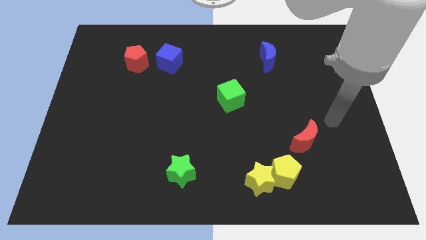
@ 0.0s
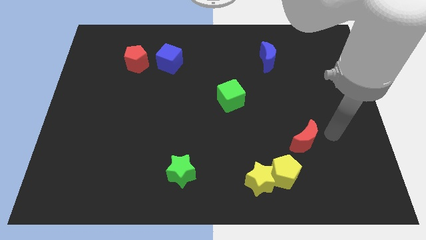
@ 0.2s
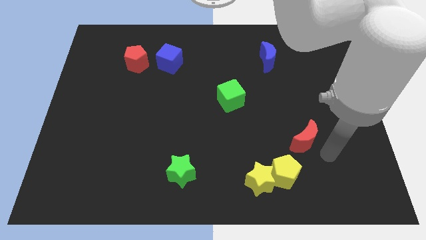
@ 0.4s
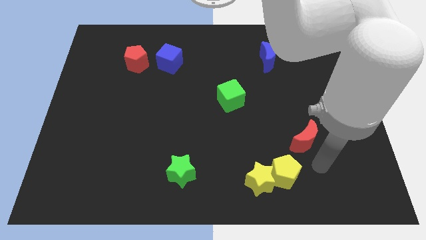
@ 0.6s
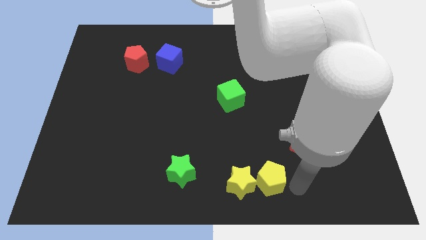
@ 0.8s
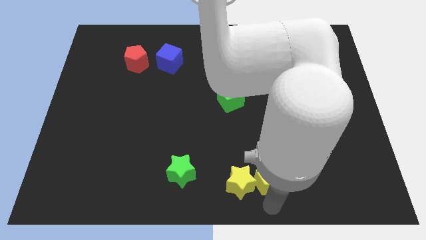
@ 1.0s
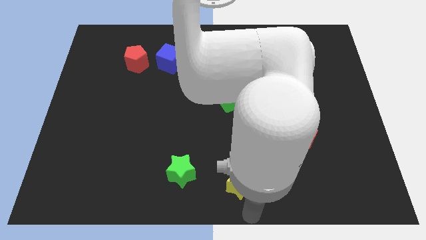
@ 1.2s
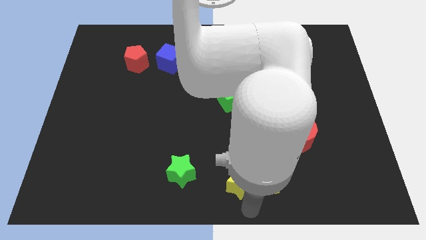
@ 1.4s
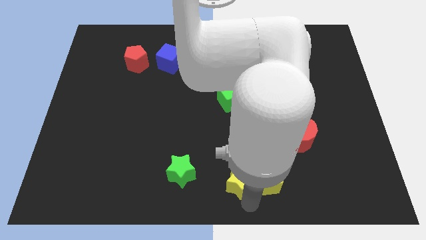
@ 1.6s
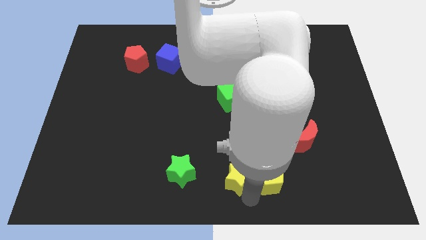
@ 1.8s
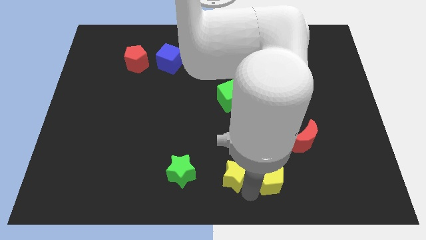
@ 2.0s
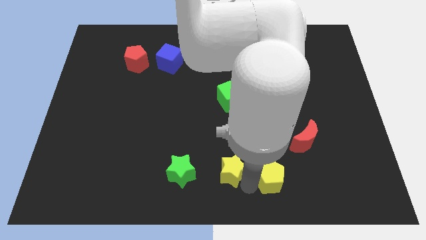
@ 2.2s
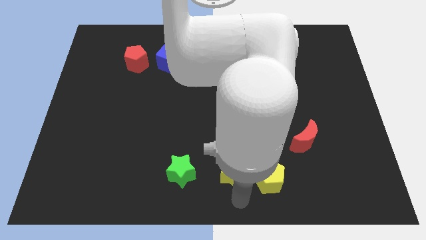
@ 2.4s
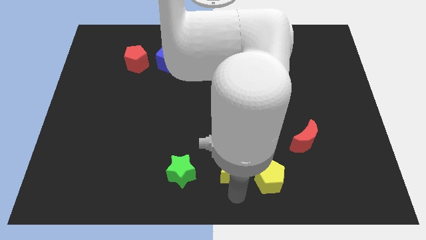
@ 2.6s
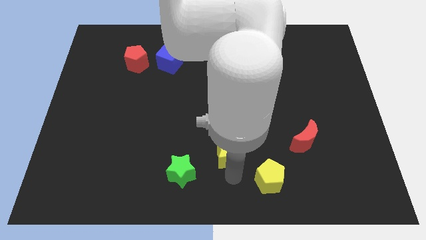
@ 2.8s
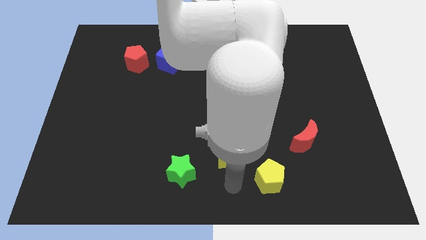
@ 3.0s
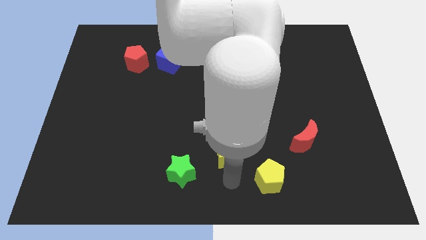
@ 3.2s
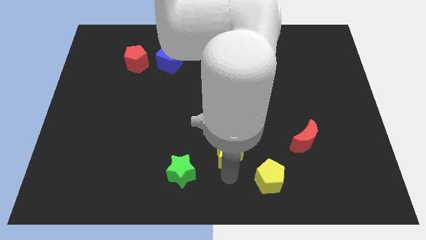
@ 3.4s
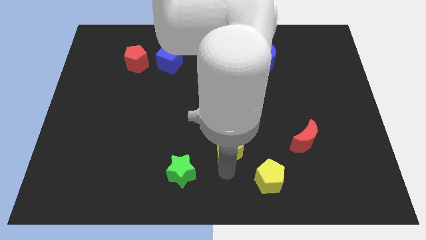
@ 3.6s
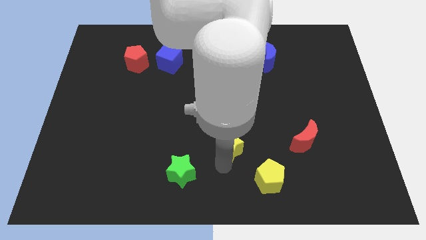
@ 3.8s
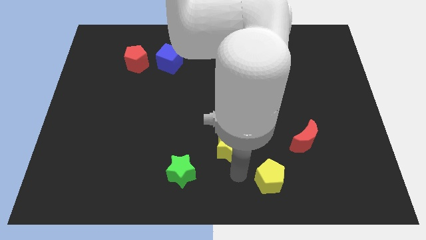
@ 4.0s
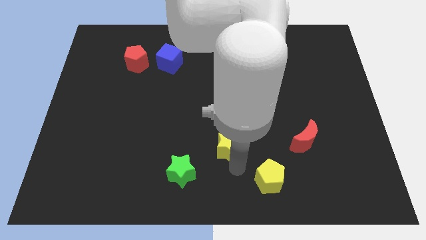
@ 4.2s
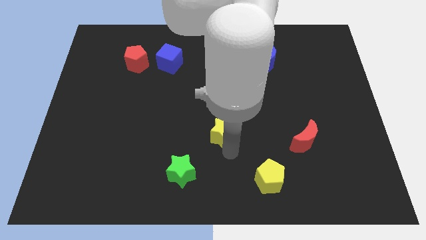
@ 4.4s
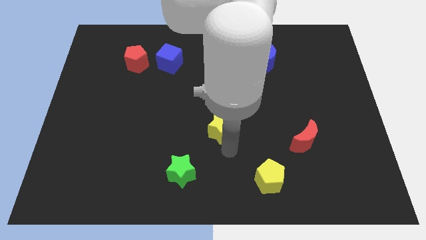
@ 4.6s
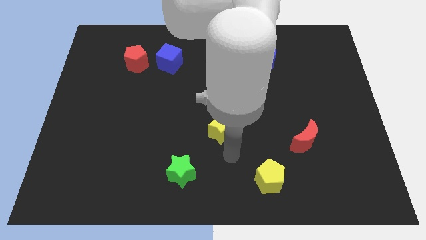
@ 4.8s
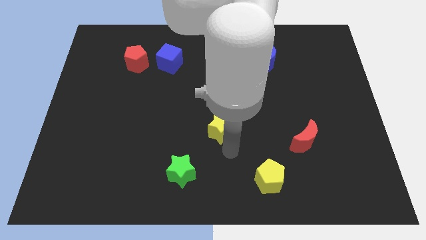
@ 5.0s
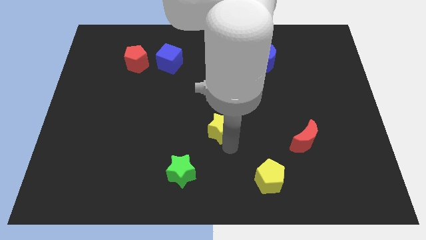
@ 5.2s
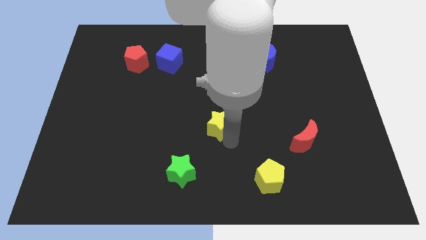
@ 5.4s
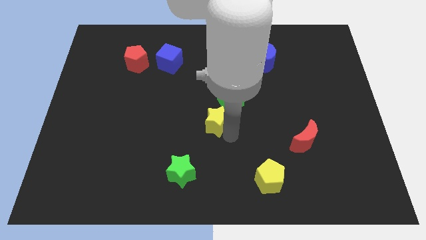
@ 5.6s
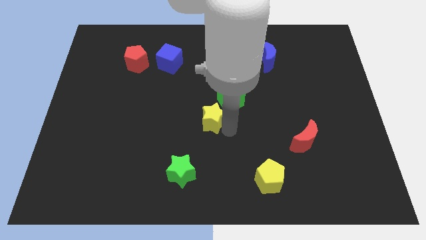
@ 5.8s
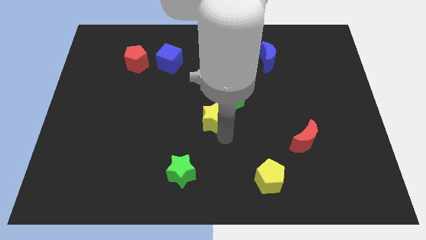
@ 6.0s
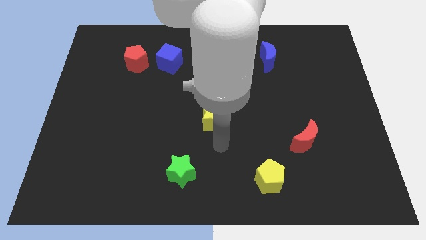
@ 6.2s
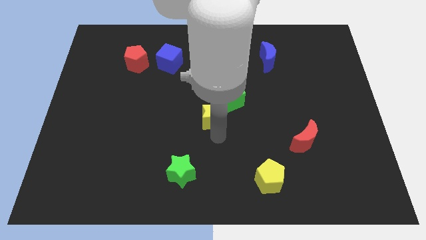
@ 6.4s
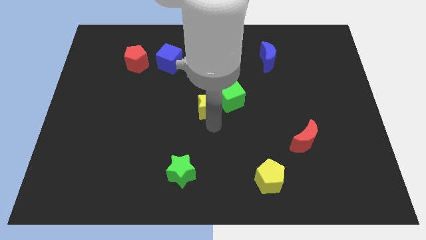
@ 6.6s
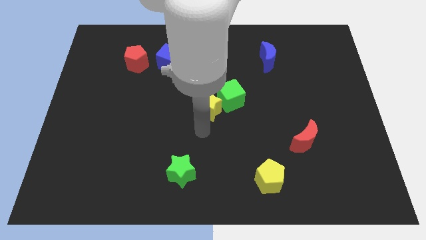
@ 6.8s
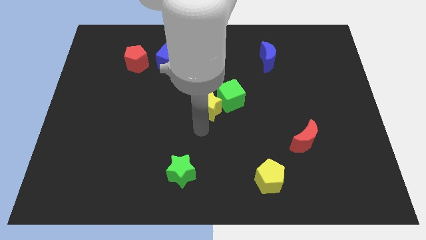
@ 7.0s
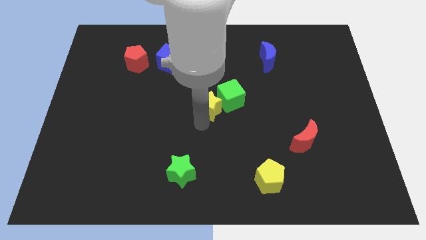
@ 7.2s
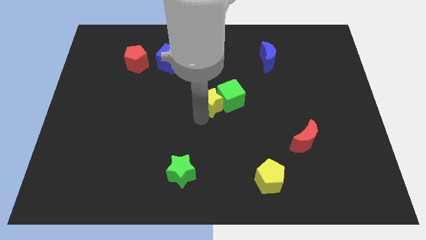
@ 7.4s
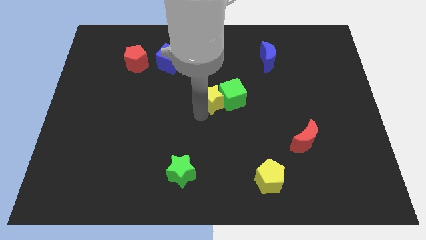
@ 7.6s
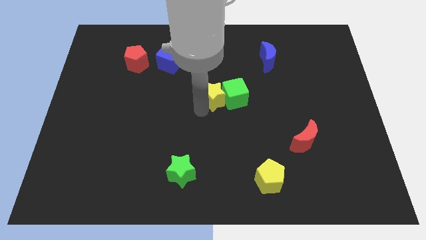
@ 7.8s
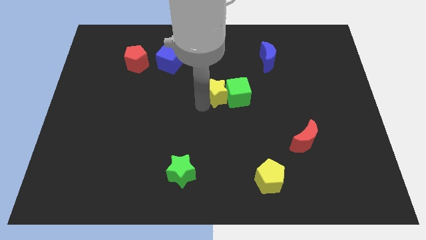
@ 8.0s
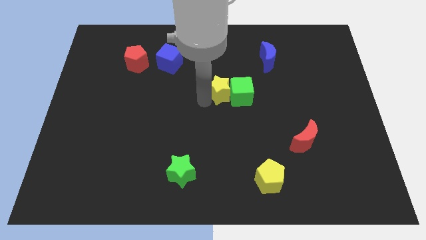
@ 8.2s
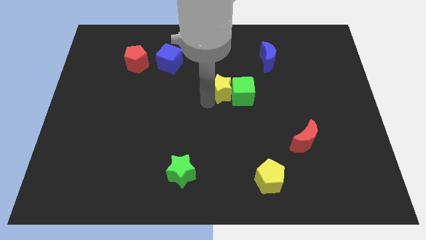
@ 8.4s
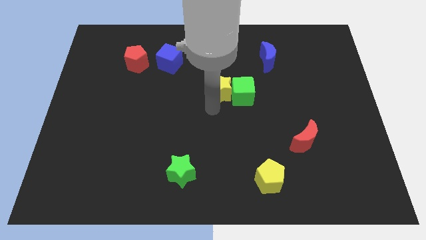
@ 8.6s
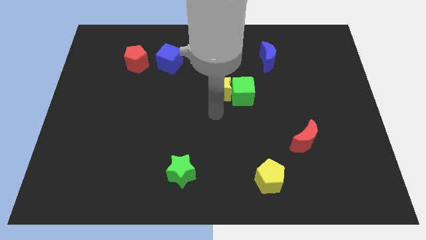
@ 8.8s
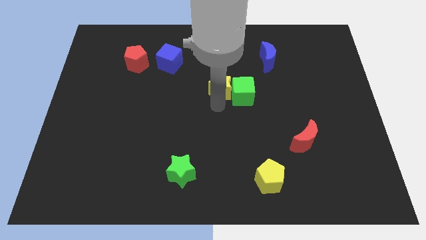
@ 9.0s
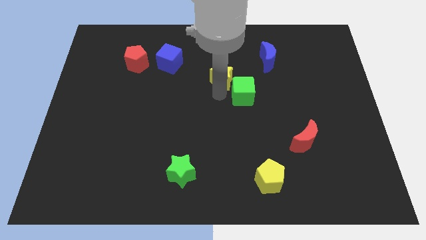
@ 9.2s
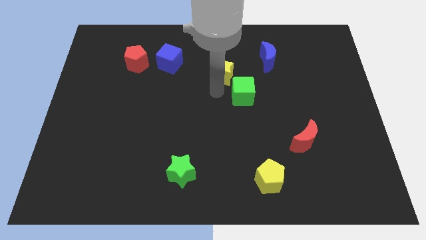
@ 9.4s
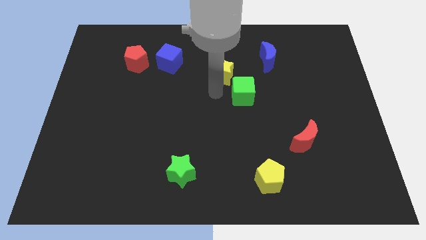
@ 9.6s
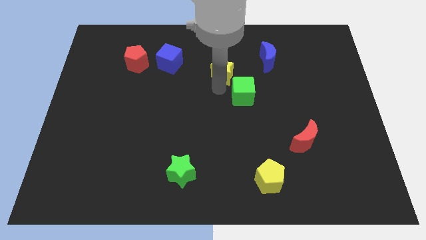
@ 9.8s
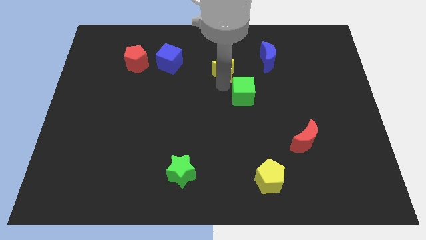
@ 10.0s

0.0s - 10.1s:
push the yellow star to the left side of the blue moon

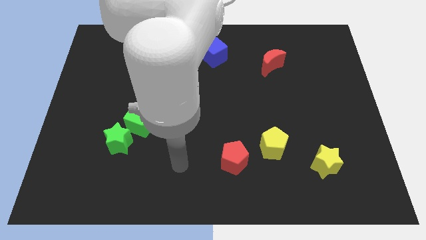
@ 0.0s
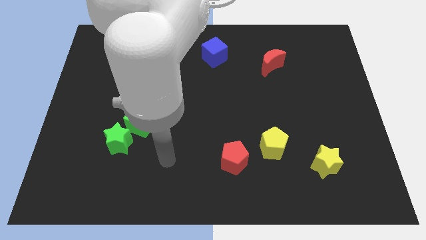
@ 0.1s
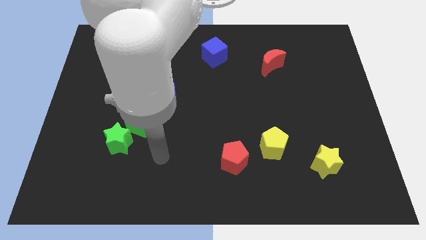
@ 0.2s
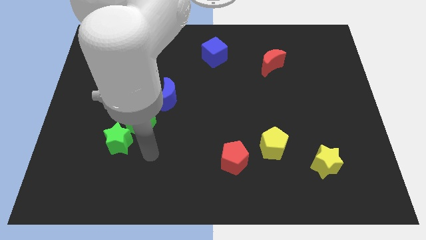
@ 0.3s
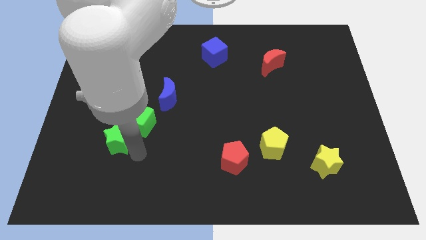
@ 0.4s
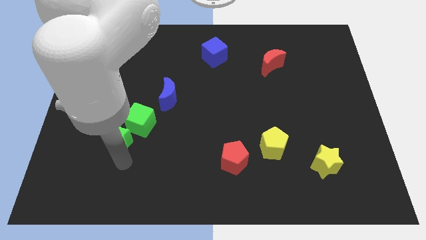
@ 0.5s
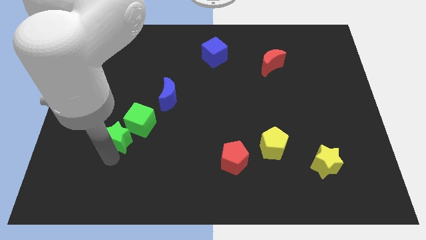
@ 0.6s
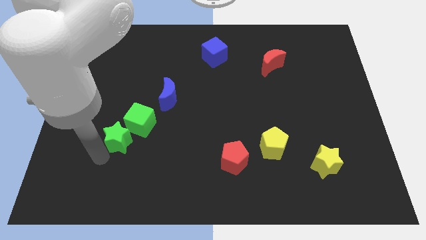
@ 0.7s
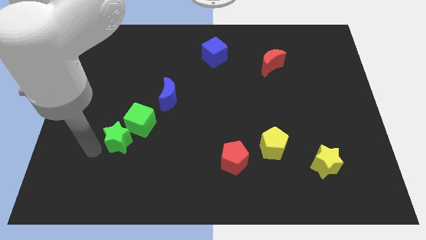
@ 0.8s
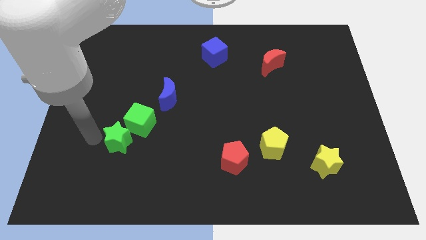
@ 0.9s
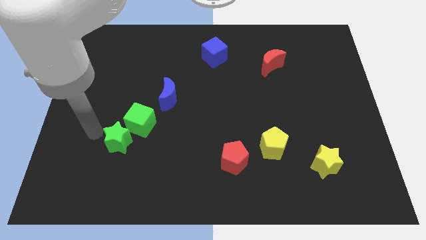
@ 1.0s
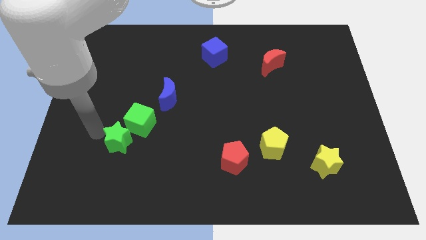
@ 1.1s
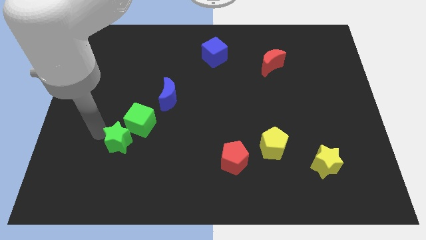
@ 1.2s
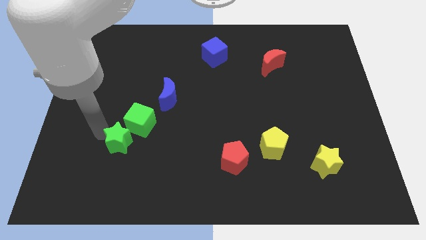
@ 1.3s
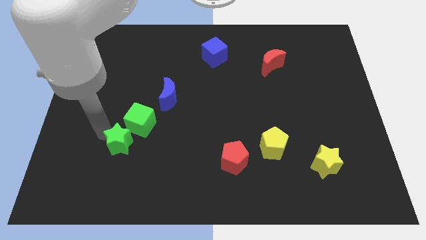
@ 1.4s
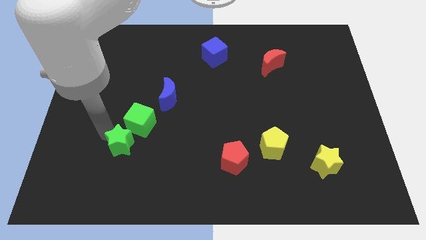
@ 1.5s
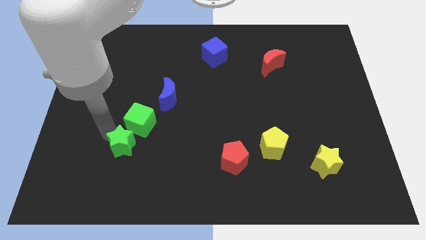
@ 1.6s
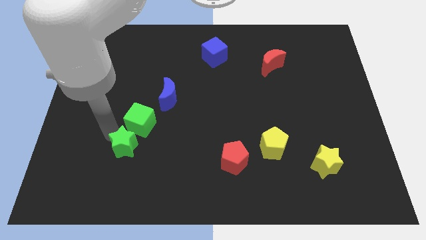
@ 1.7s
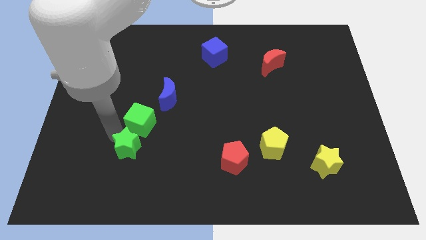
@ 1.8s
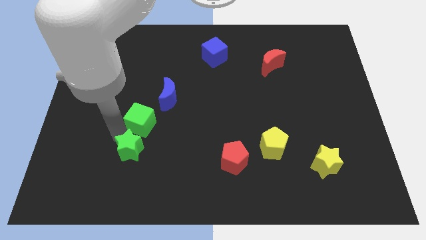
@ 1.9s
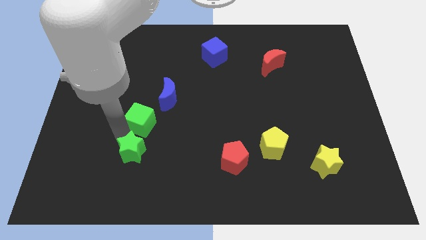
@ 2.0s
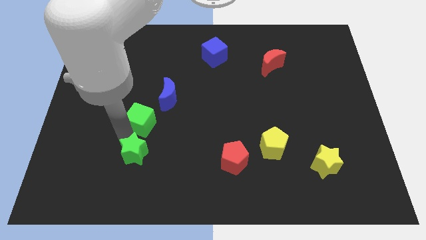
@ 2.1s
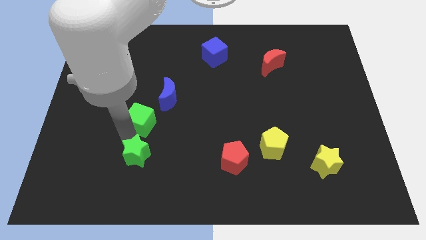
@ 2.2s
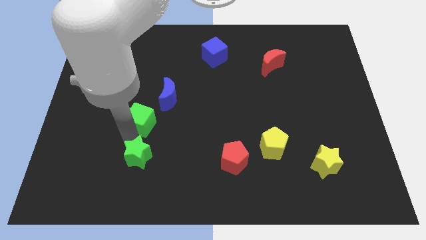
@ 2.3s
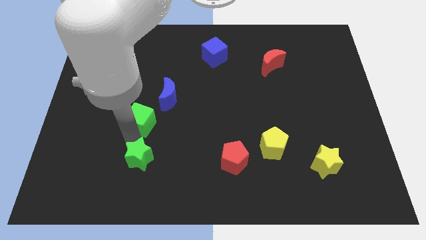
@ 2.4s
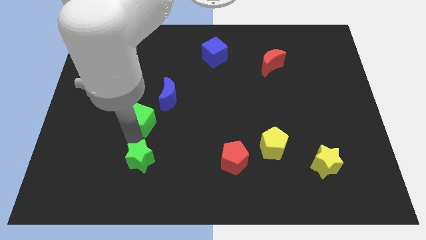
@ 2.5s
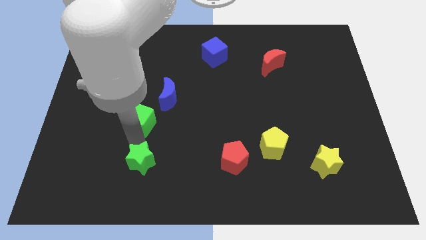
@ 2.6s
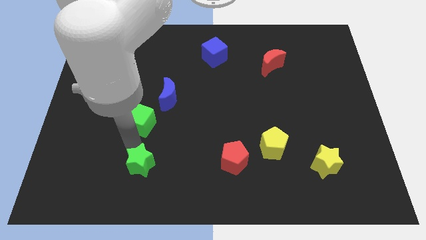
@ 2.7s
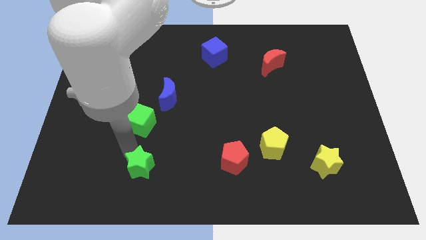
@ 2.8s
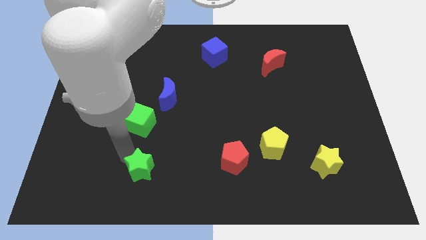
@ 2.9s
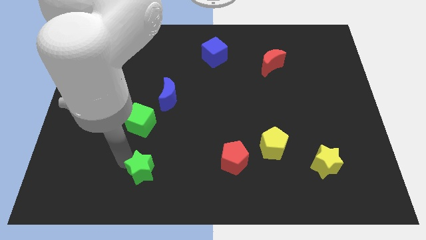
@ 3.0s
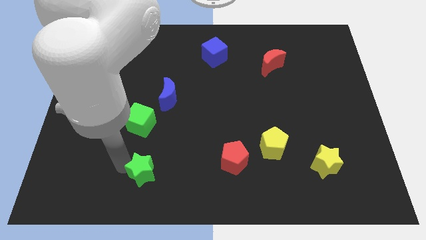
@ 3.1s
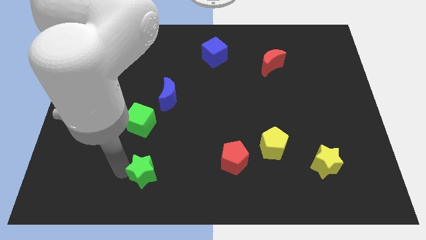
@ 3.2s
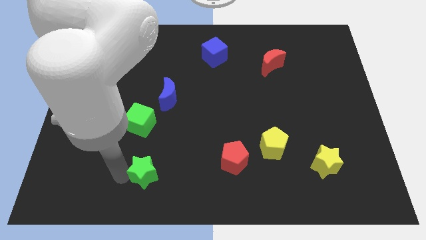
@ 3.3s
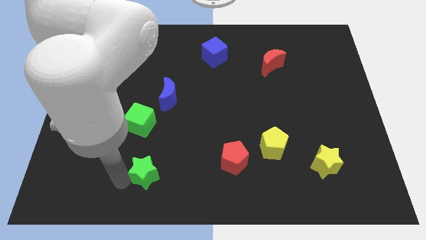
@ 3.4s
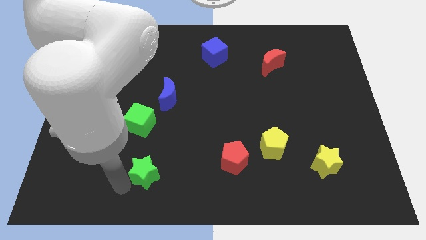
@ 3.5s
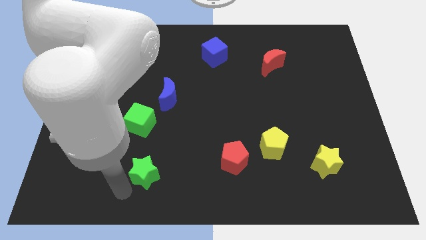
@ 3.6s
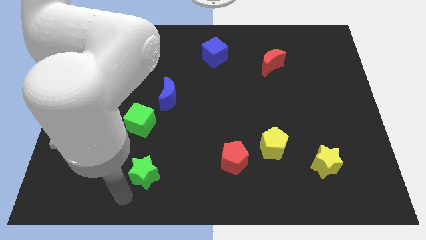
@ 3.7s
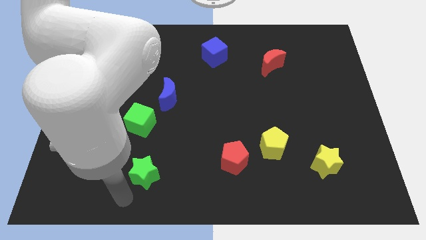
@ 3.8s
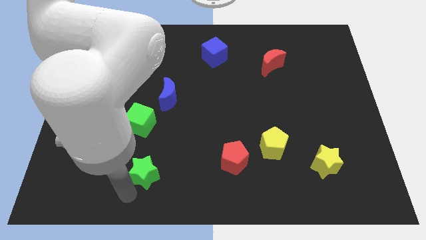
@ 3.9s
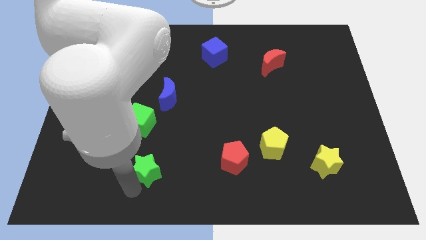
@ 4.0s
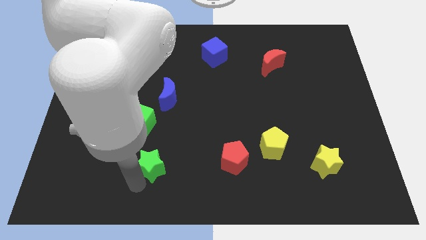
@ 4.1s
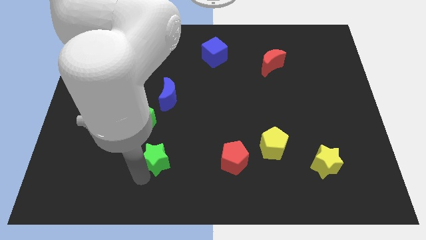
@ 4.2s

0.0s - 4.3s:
put the green star to the left of the red pentagon
